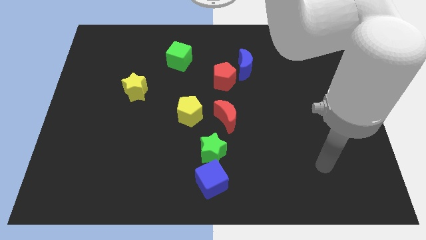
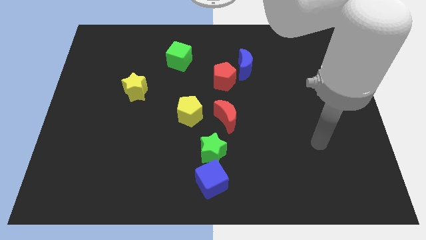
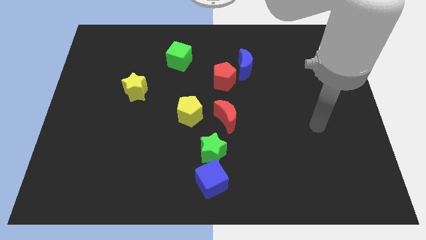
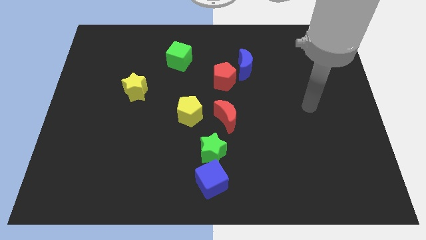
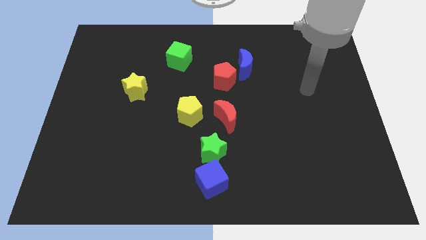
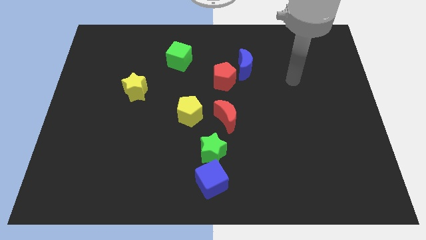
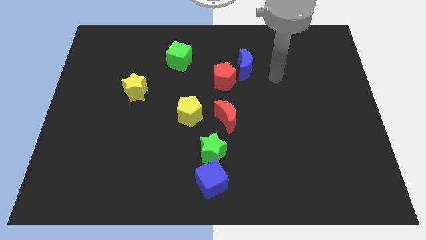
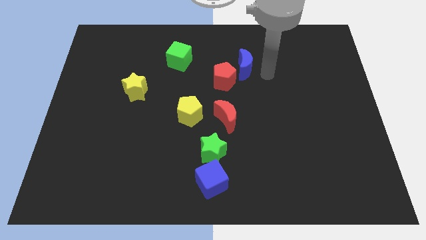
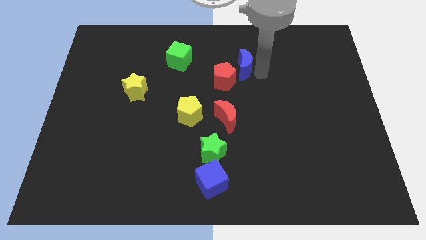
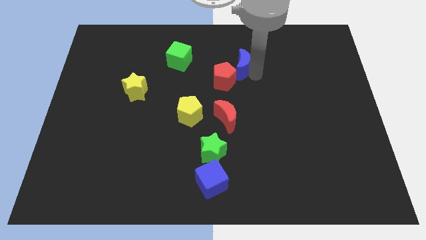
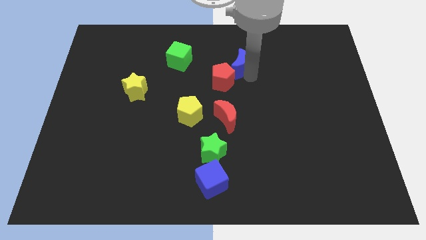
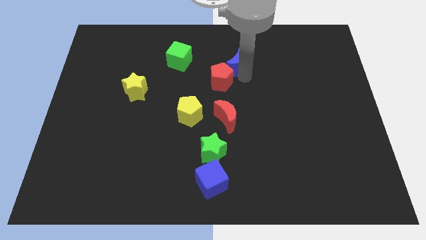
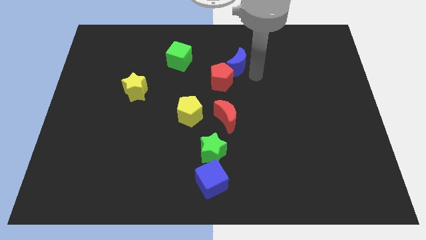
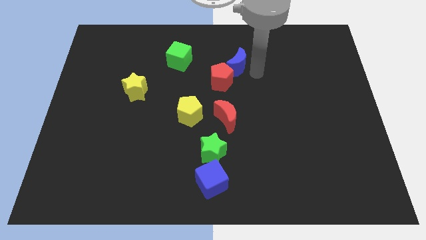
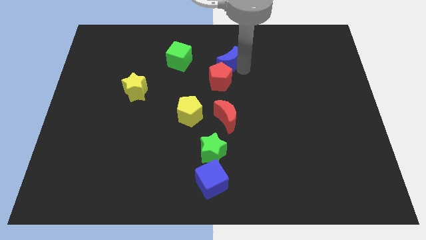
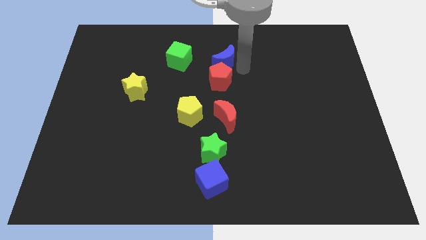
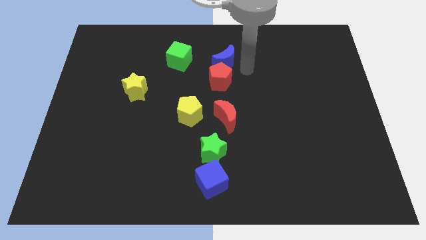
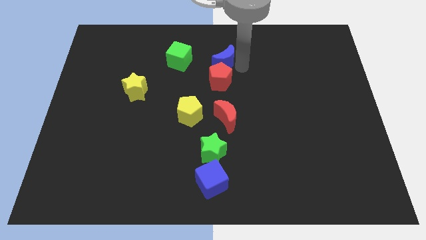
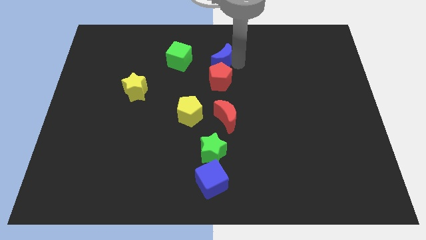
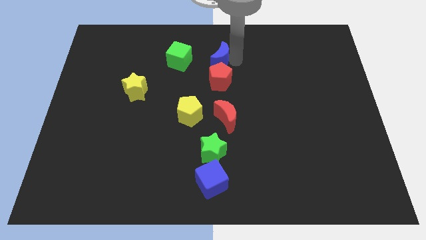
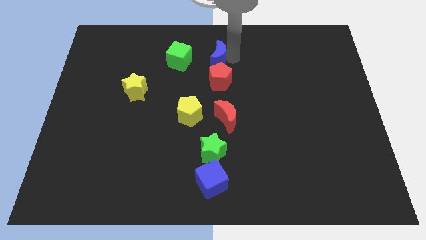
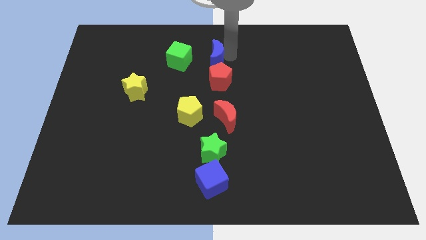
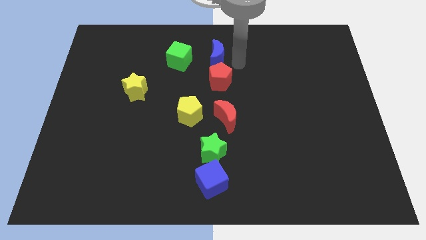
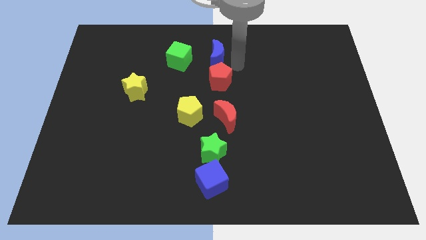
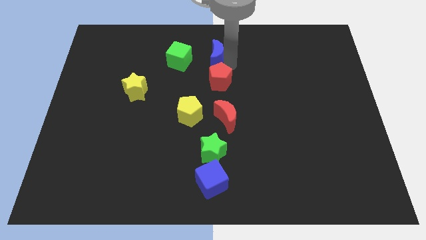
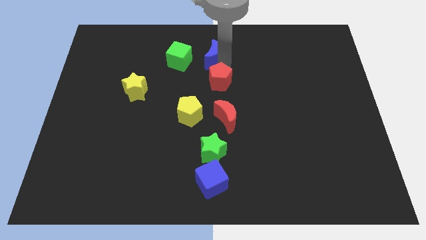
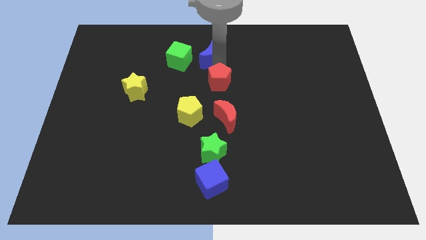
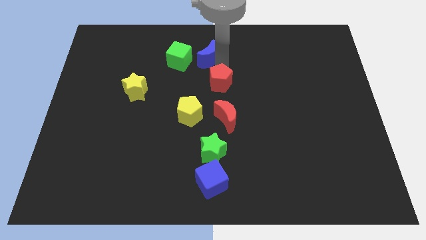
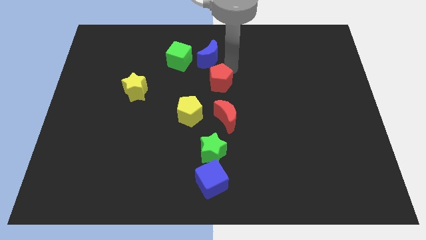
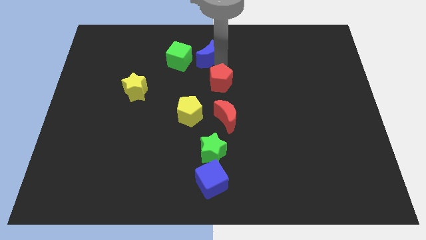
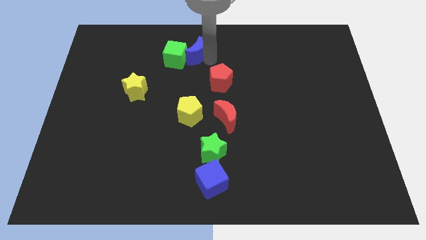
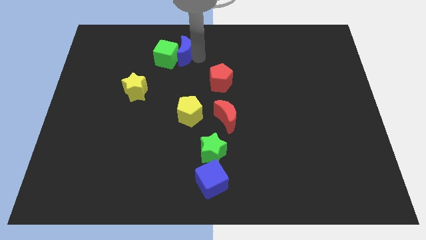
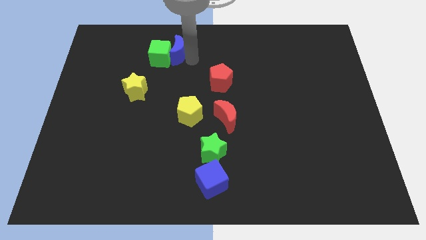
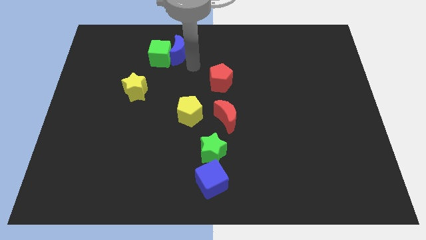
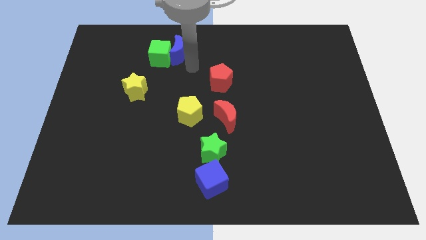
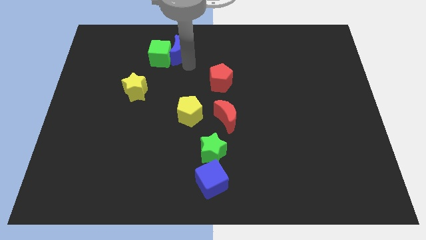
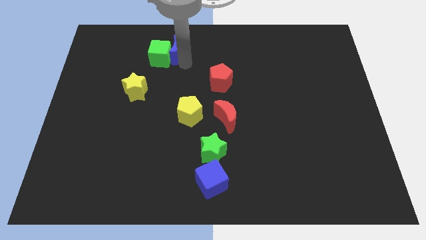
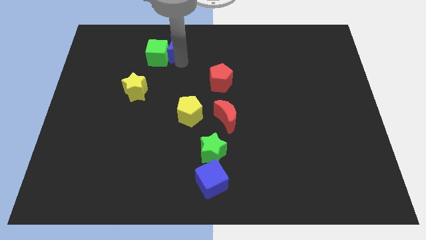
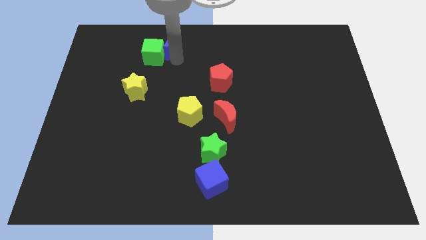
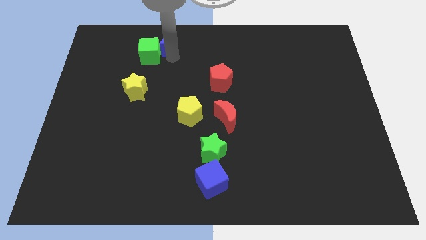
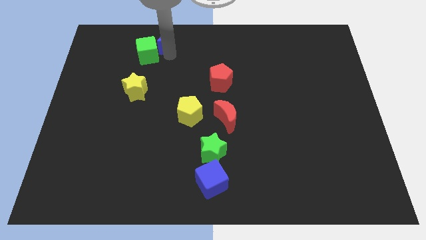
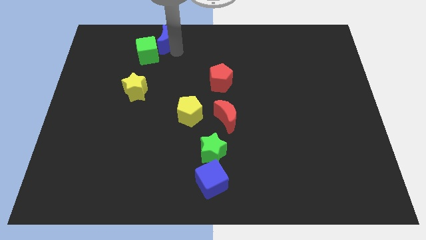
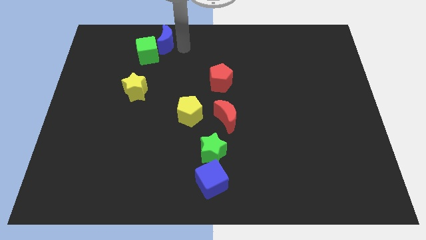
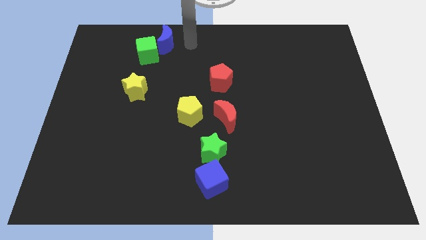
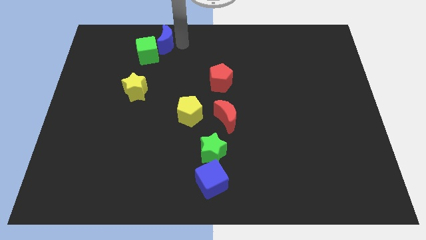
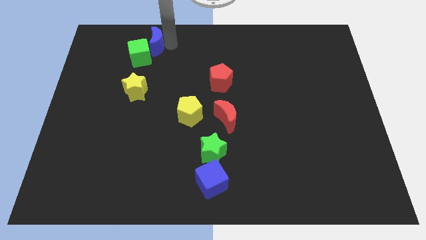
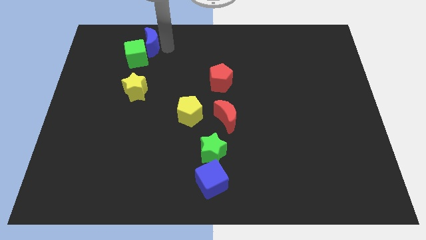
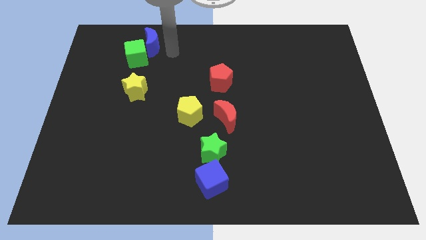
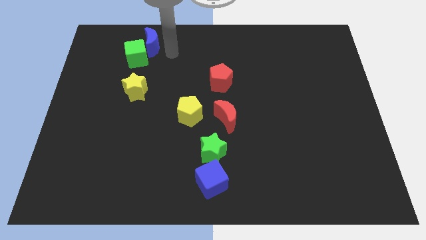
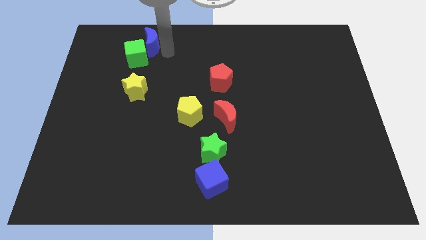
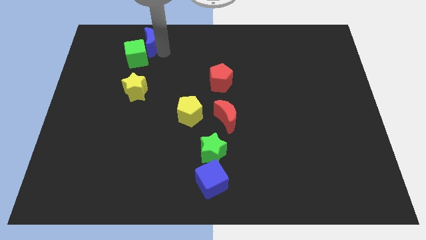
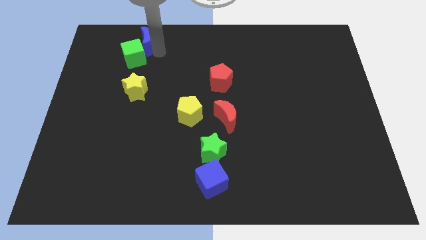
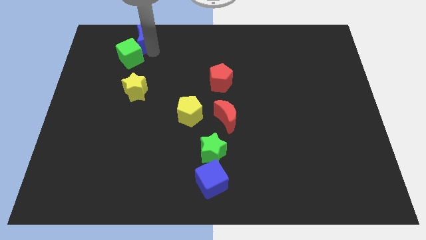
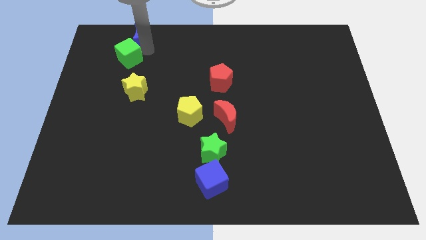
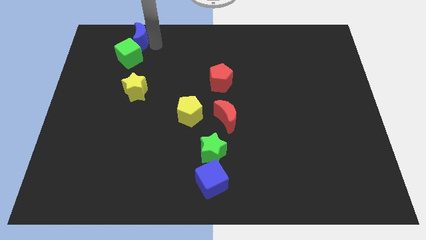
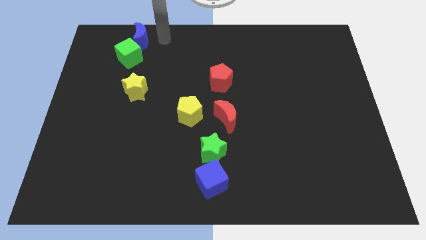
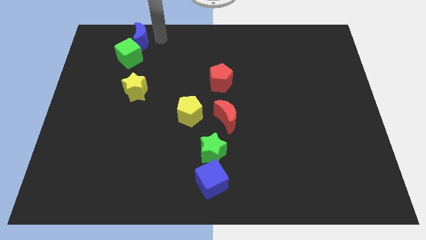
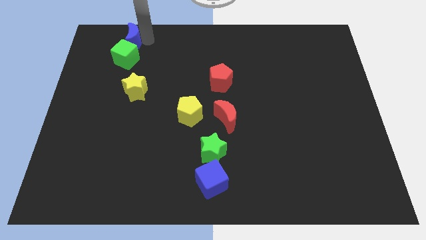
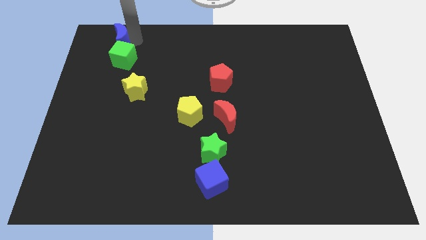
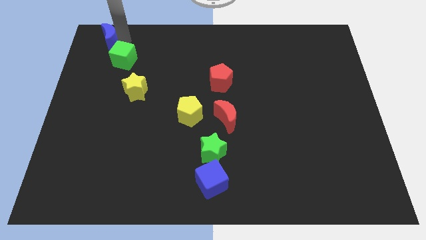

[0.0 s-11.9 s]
push the blue moon to the top left

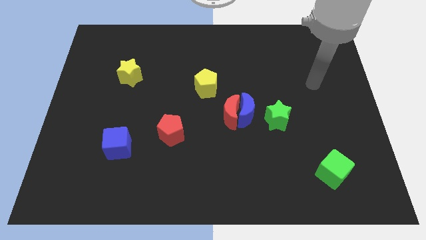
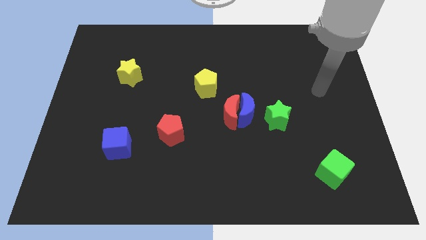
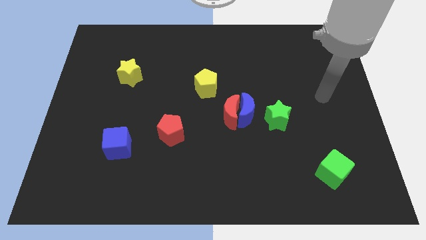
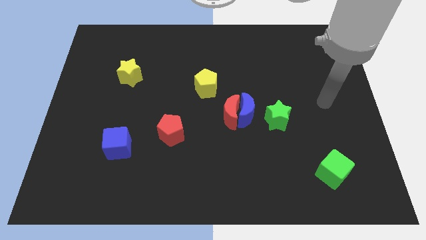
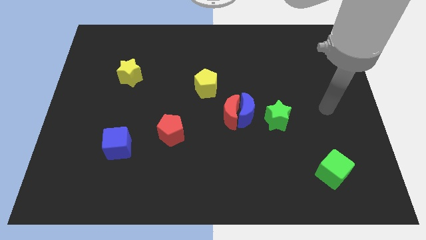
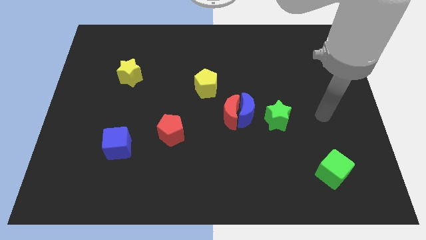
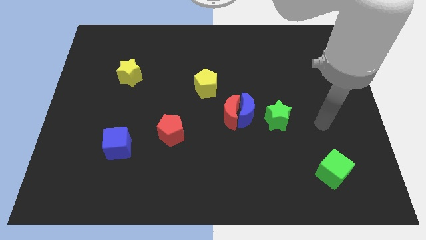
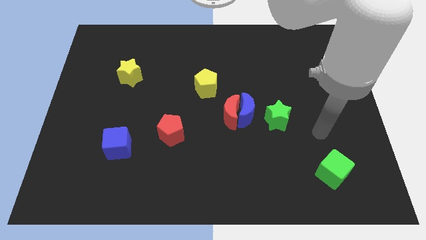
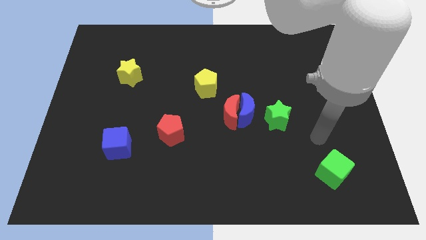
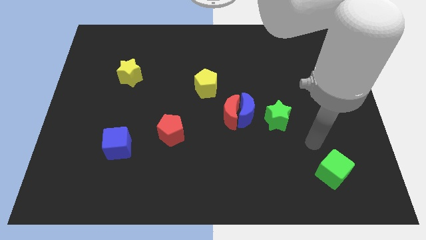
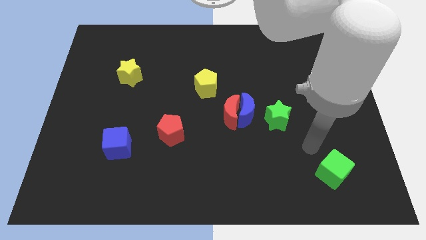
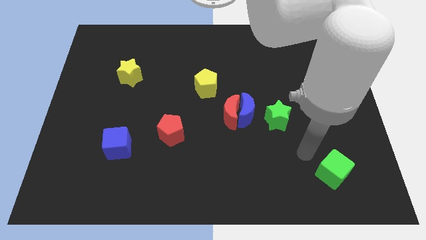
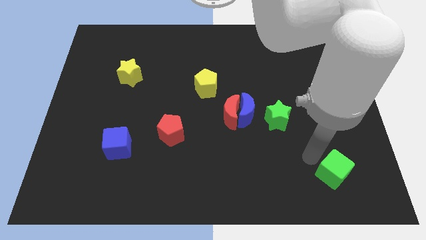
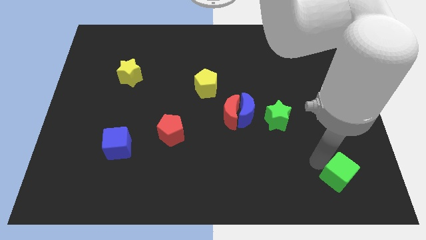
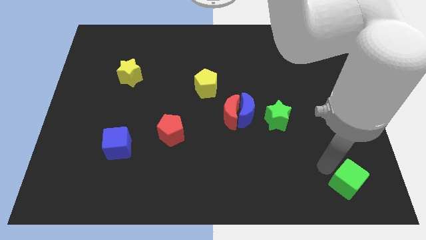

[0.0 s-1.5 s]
slide the green cube to the bottom right of the board
